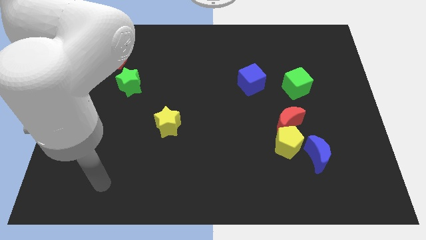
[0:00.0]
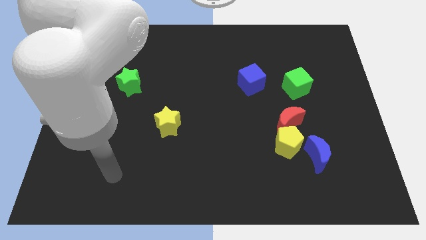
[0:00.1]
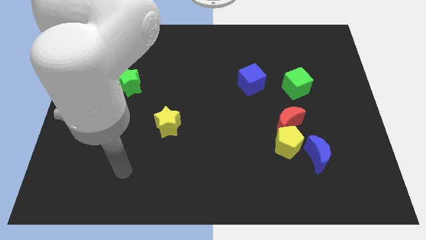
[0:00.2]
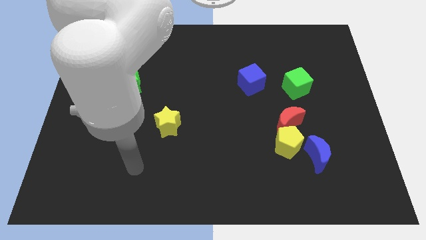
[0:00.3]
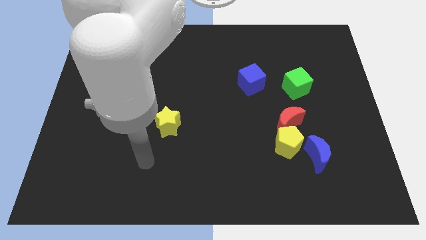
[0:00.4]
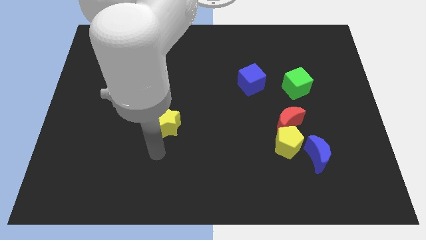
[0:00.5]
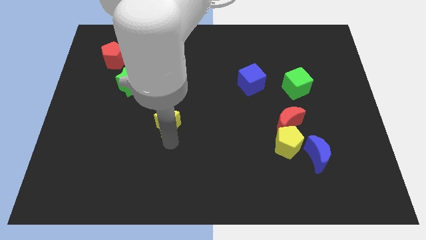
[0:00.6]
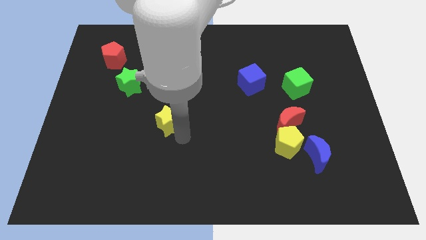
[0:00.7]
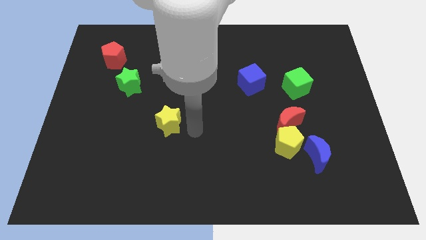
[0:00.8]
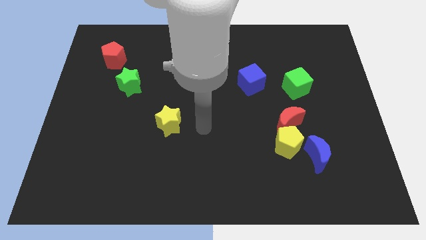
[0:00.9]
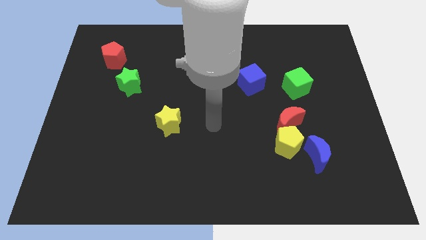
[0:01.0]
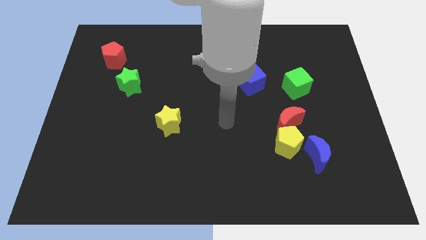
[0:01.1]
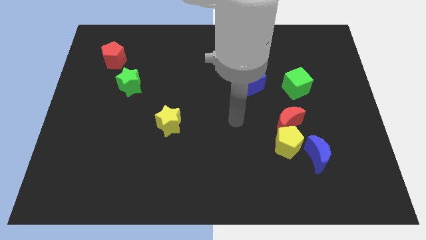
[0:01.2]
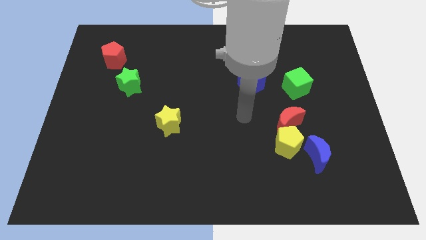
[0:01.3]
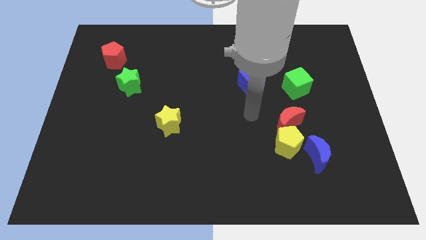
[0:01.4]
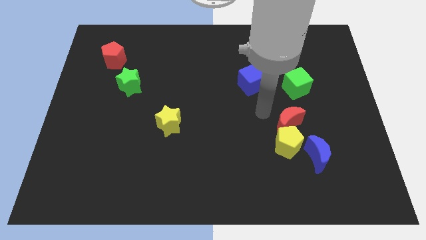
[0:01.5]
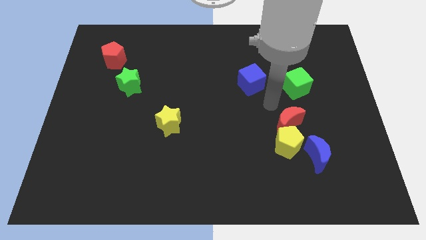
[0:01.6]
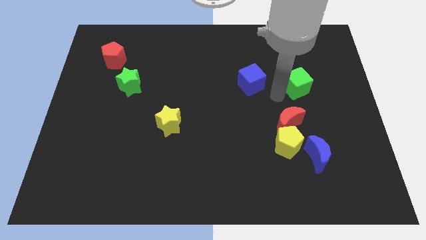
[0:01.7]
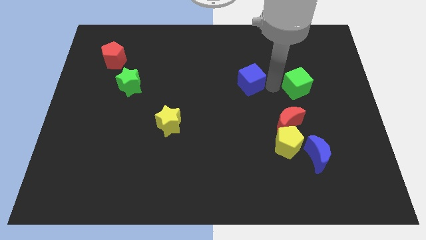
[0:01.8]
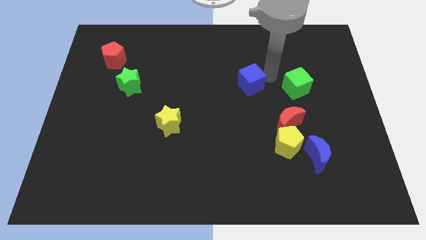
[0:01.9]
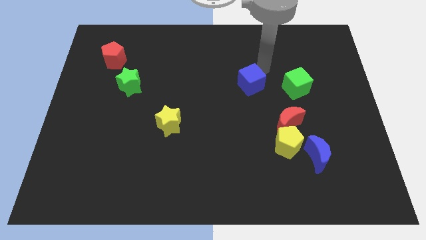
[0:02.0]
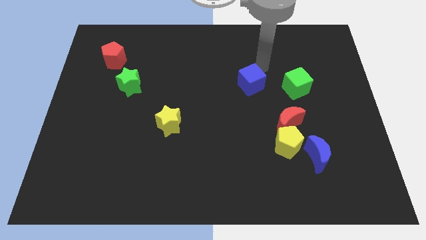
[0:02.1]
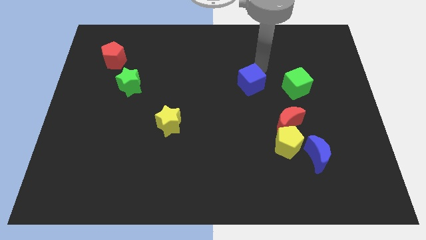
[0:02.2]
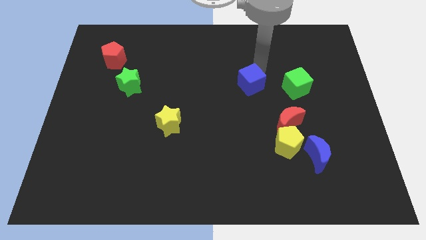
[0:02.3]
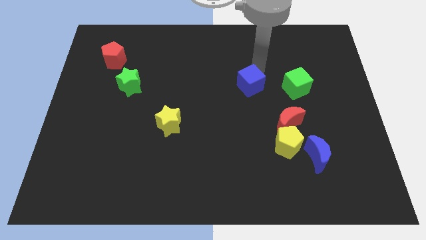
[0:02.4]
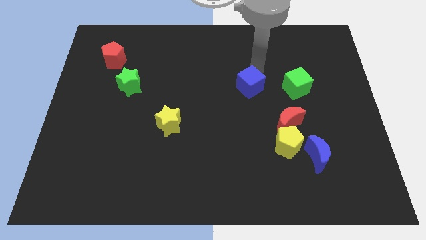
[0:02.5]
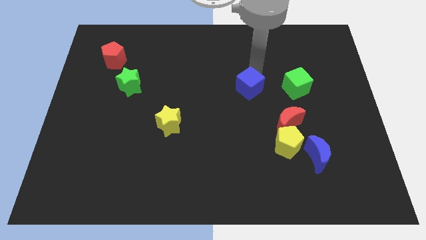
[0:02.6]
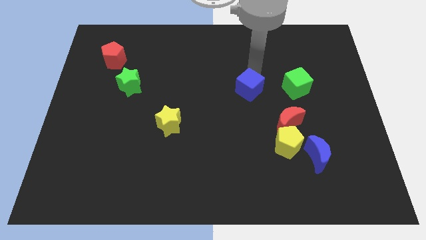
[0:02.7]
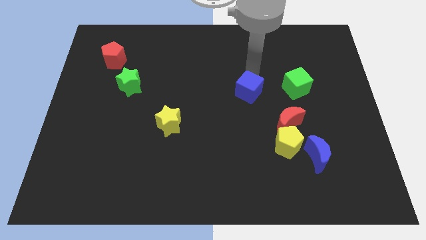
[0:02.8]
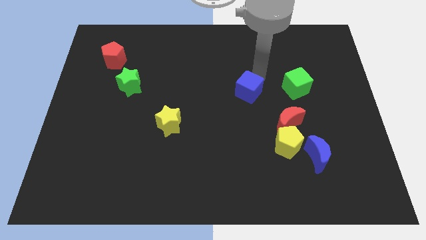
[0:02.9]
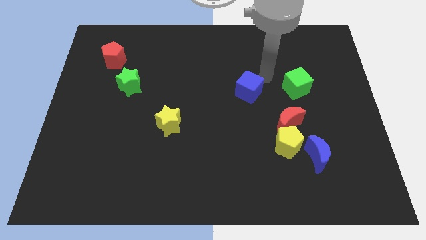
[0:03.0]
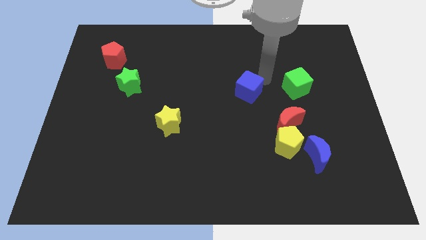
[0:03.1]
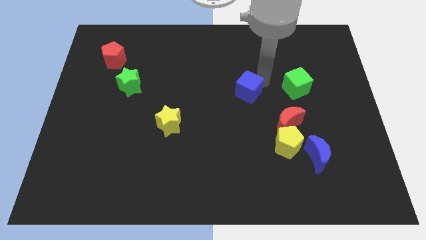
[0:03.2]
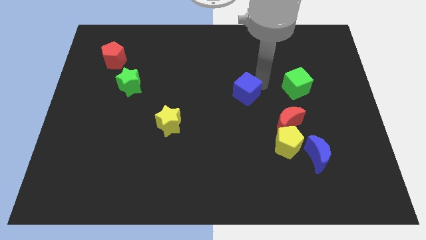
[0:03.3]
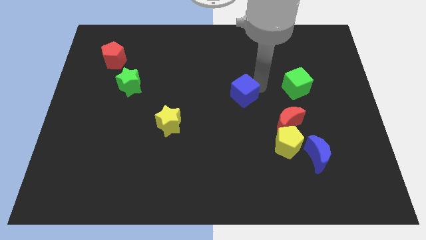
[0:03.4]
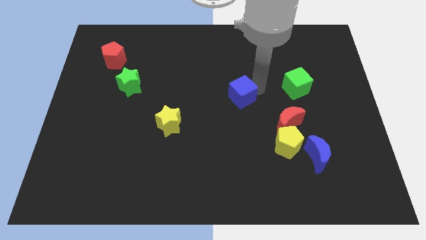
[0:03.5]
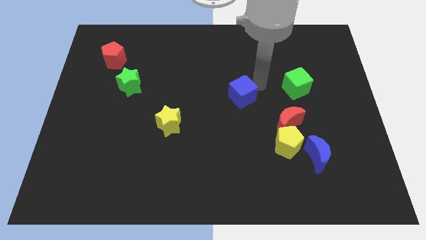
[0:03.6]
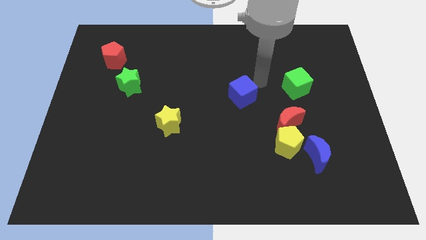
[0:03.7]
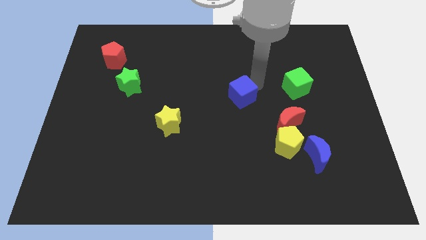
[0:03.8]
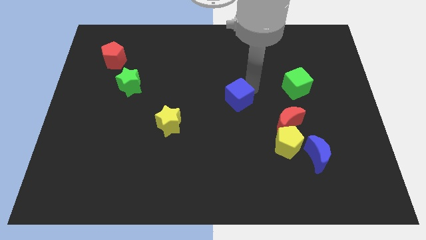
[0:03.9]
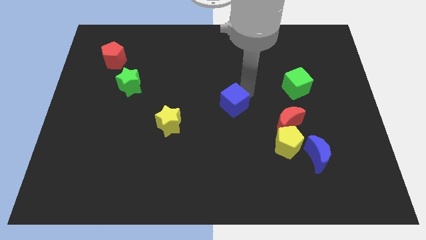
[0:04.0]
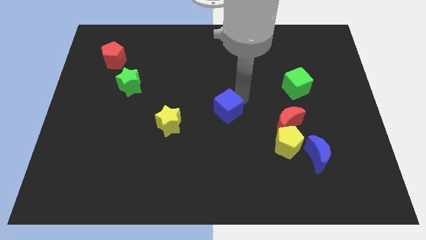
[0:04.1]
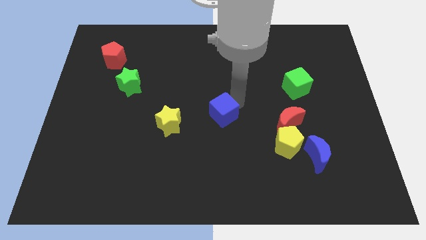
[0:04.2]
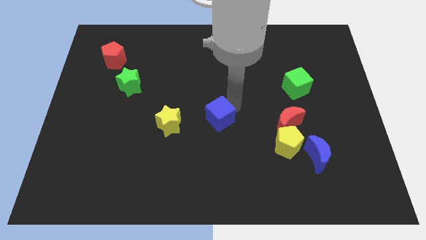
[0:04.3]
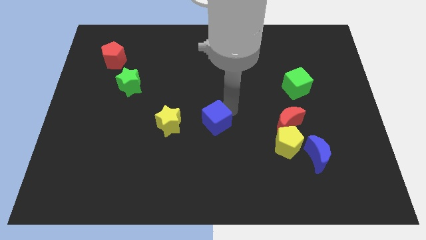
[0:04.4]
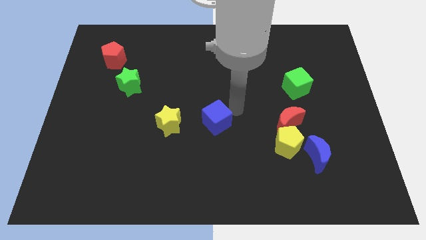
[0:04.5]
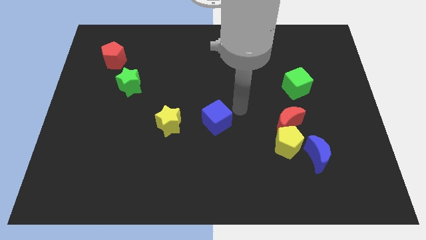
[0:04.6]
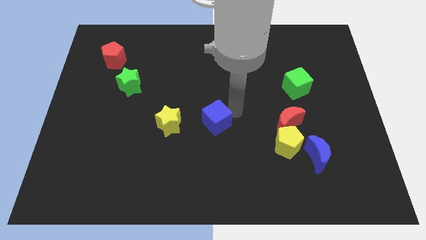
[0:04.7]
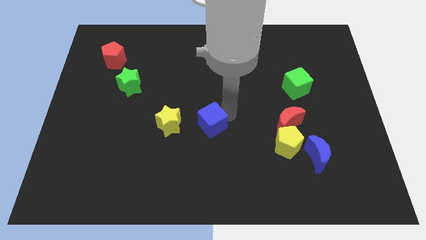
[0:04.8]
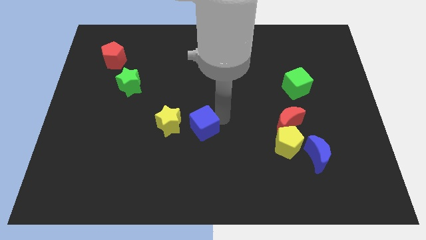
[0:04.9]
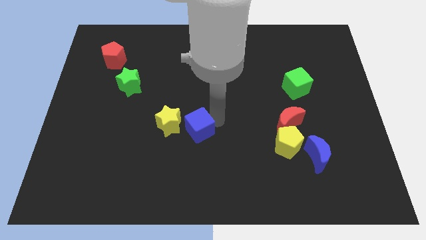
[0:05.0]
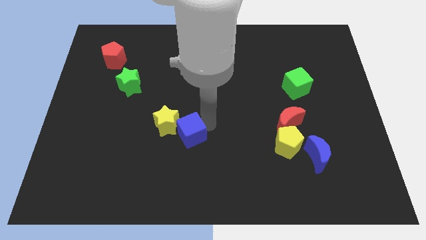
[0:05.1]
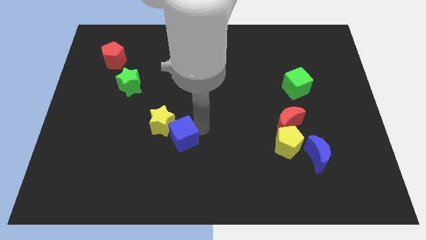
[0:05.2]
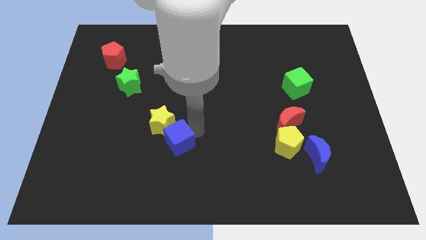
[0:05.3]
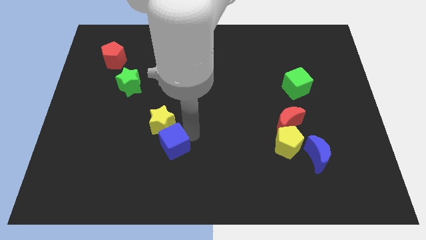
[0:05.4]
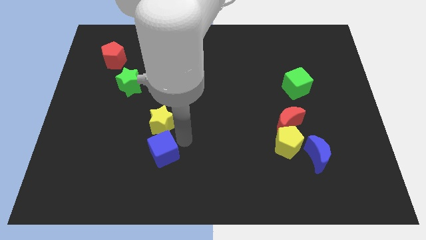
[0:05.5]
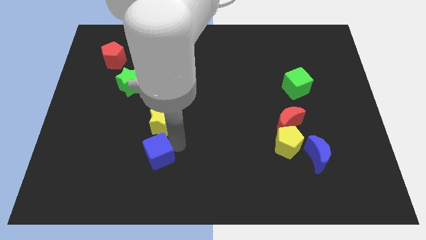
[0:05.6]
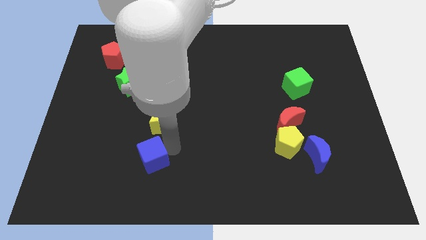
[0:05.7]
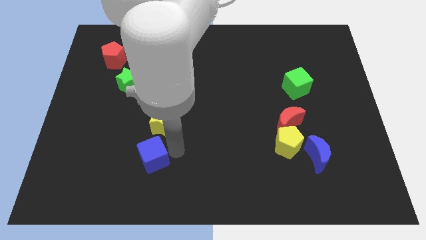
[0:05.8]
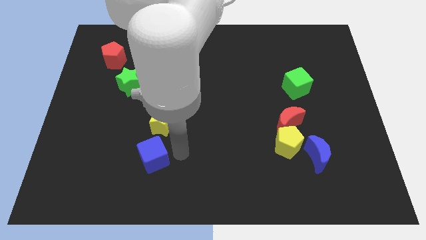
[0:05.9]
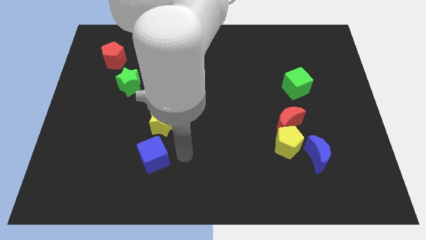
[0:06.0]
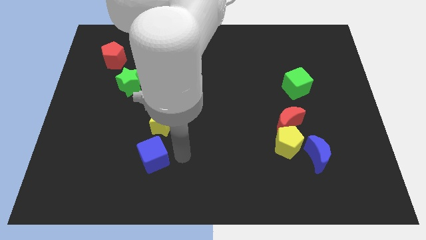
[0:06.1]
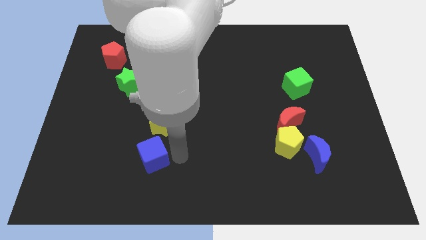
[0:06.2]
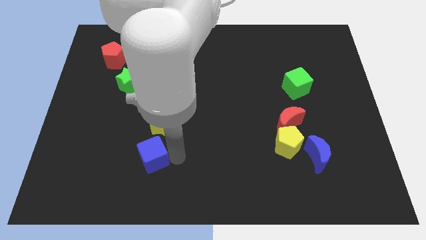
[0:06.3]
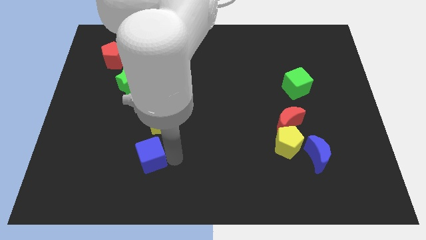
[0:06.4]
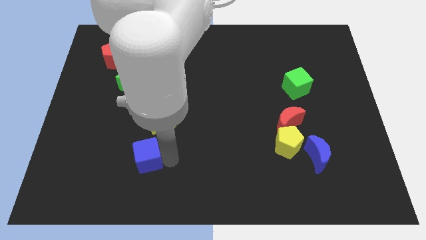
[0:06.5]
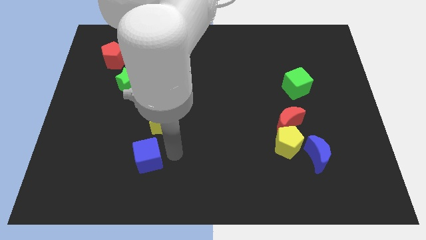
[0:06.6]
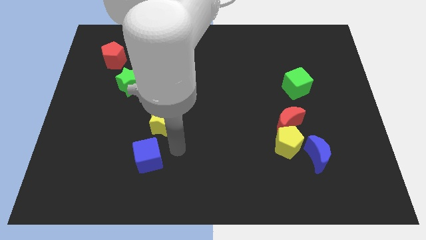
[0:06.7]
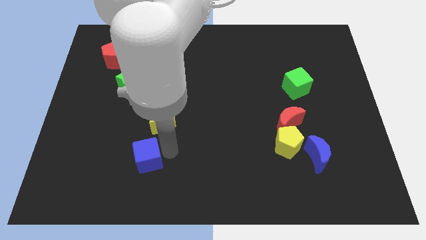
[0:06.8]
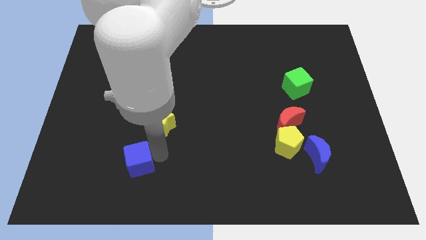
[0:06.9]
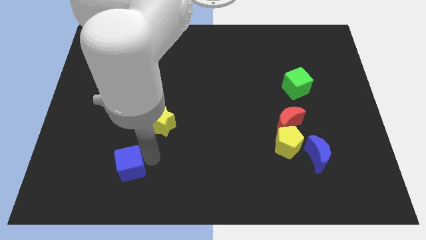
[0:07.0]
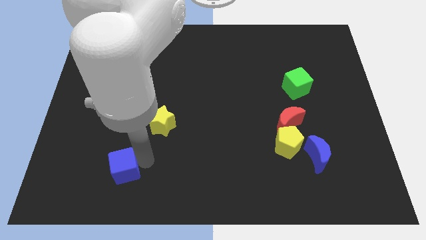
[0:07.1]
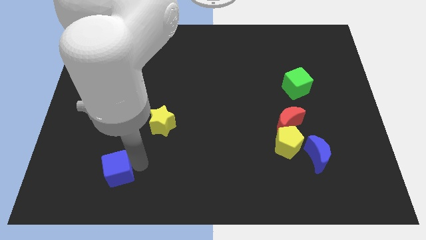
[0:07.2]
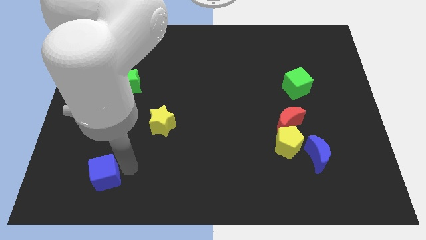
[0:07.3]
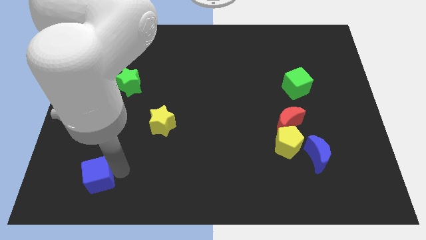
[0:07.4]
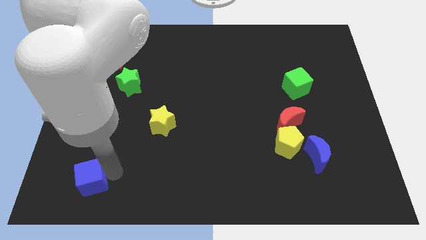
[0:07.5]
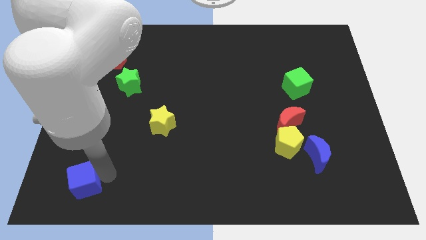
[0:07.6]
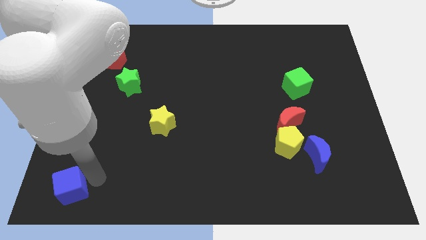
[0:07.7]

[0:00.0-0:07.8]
slide the blue cube to the bottom left
